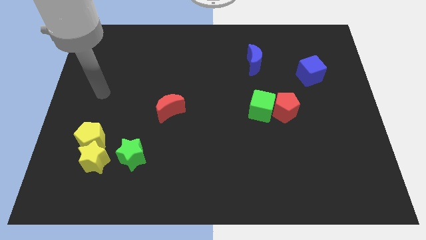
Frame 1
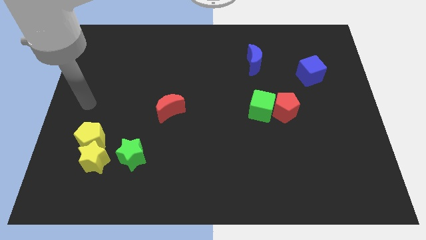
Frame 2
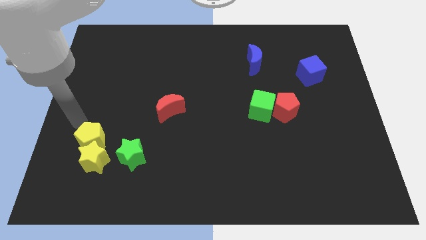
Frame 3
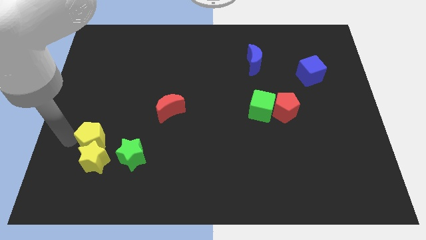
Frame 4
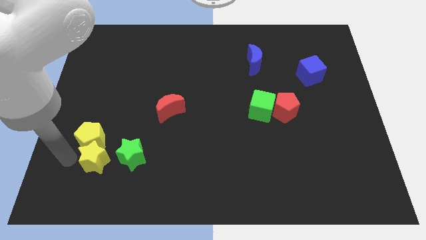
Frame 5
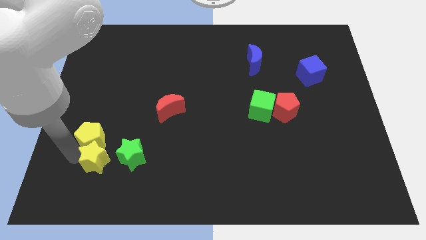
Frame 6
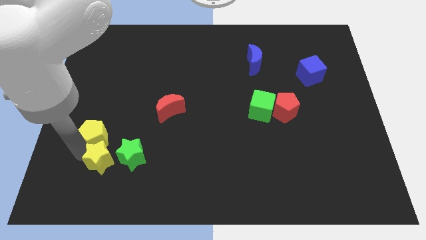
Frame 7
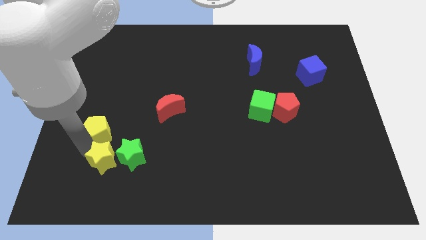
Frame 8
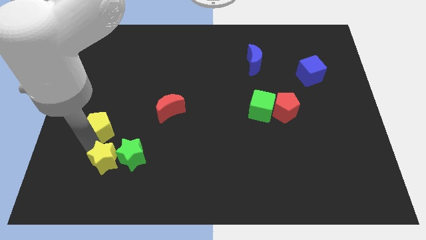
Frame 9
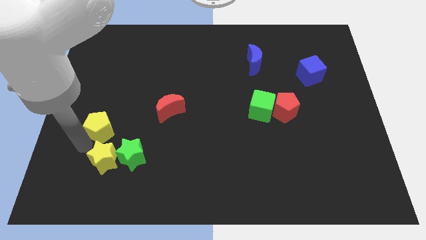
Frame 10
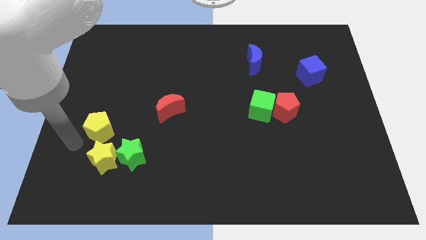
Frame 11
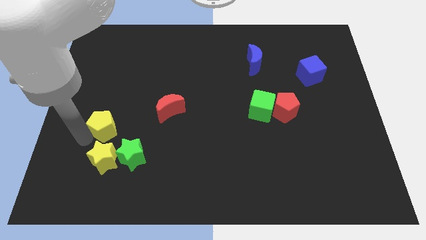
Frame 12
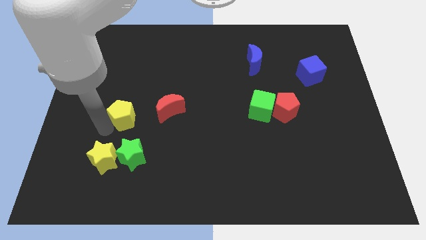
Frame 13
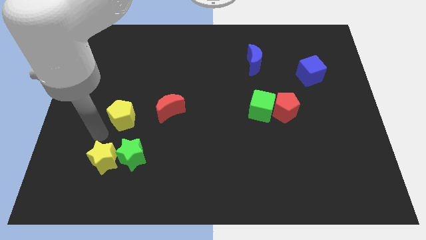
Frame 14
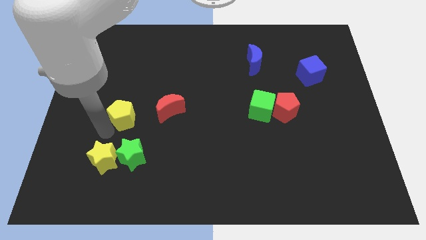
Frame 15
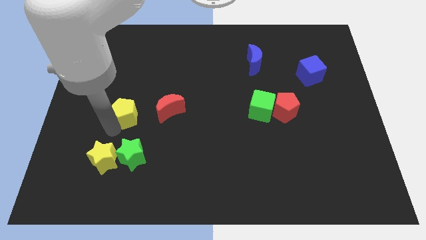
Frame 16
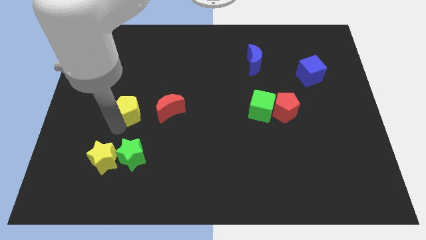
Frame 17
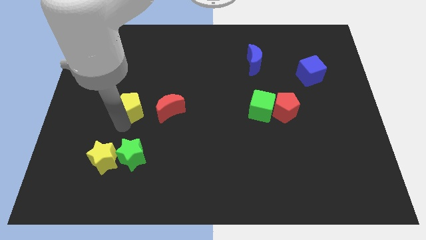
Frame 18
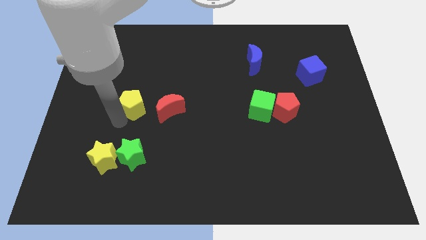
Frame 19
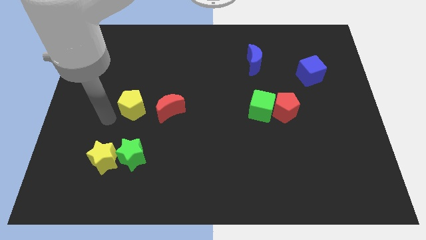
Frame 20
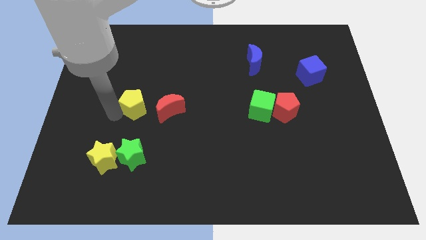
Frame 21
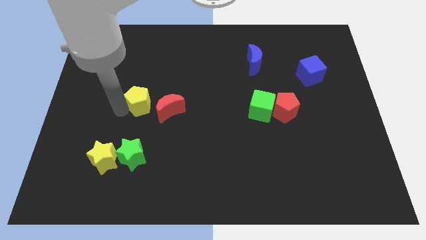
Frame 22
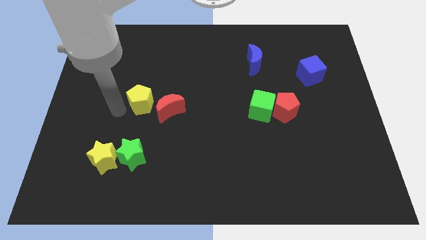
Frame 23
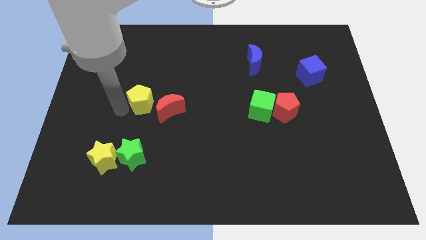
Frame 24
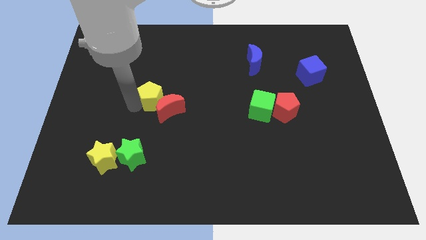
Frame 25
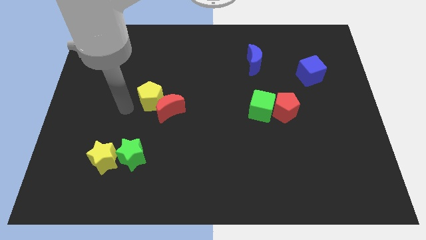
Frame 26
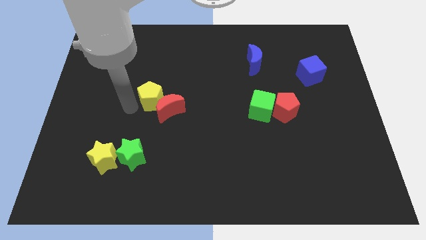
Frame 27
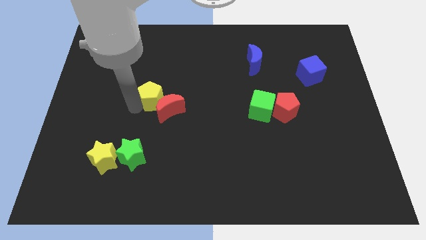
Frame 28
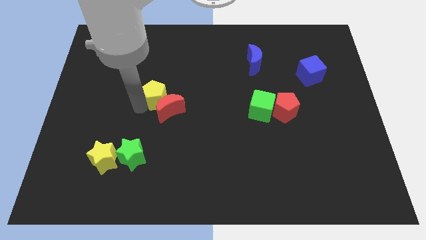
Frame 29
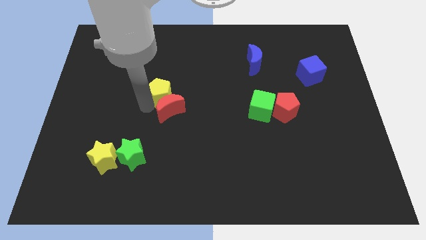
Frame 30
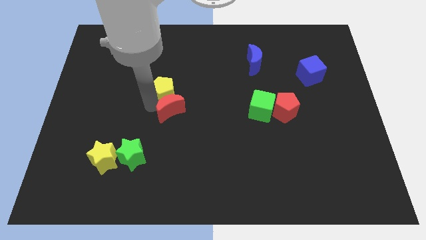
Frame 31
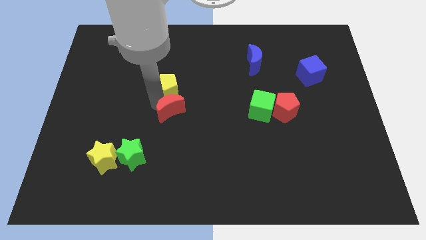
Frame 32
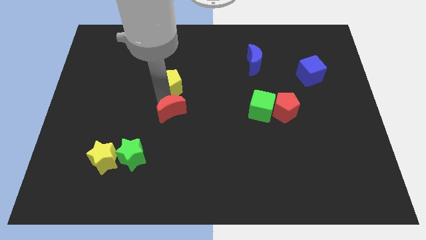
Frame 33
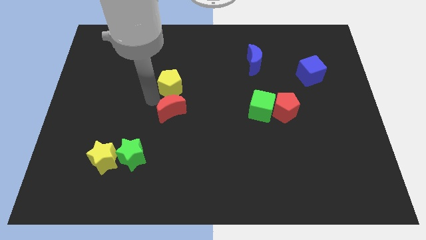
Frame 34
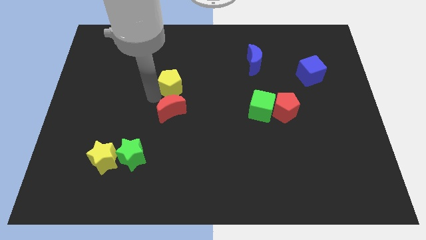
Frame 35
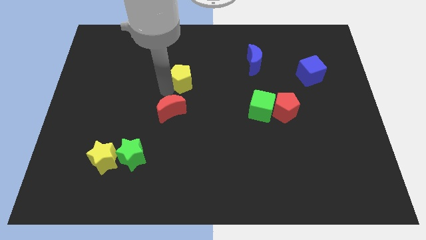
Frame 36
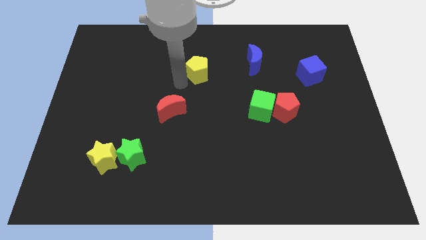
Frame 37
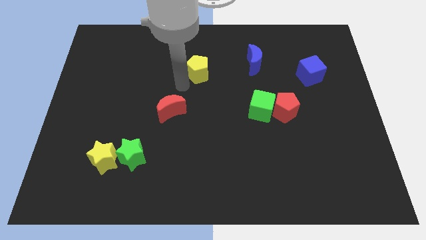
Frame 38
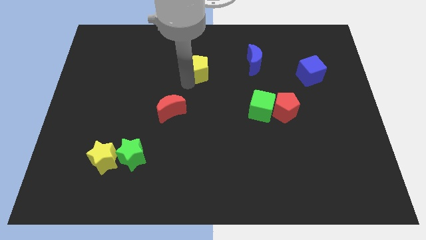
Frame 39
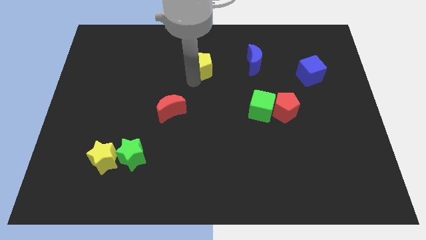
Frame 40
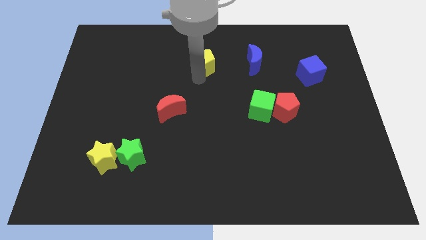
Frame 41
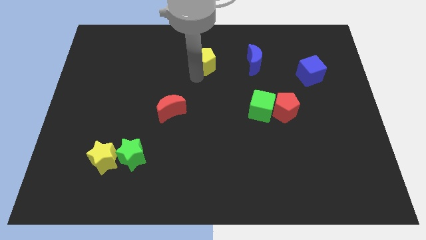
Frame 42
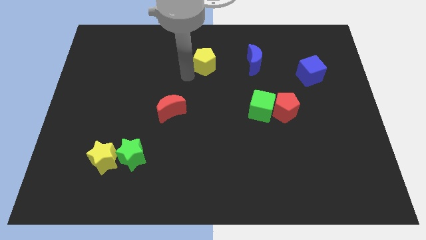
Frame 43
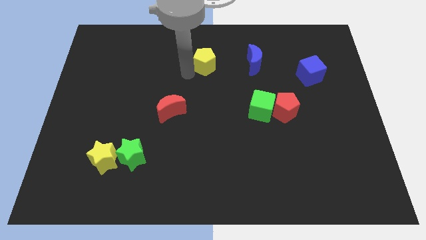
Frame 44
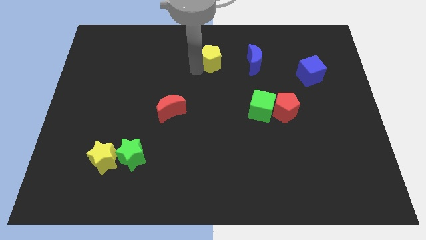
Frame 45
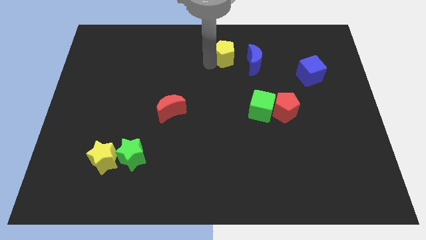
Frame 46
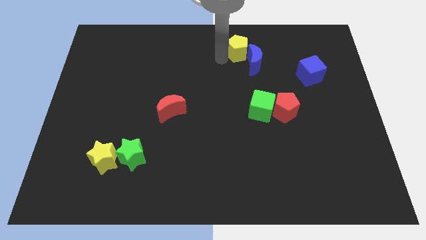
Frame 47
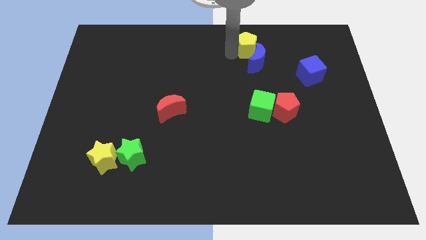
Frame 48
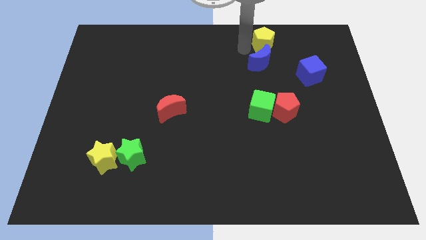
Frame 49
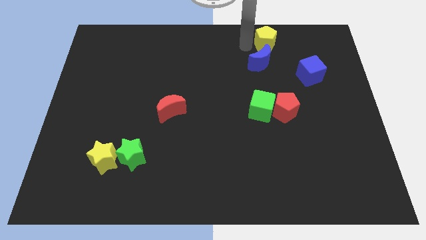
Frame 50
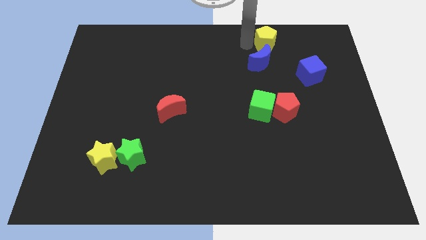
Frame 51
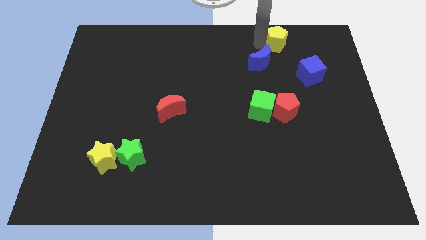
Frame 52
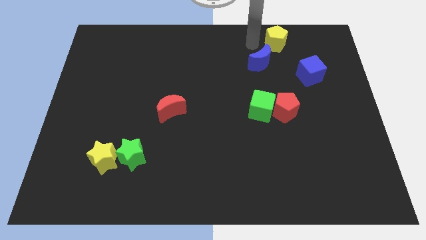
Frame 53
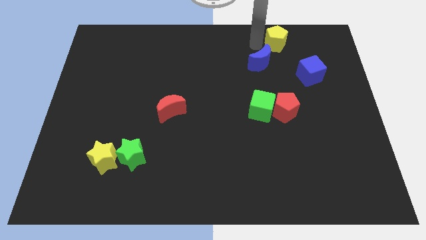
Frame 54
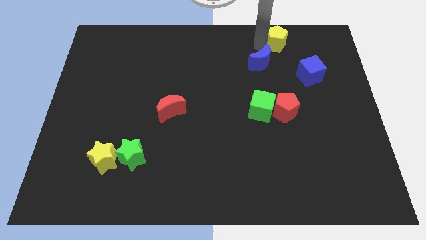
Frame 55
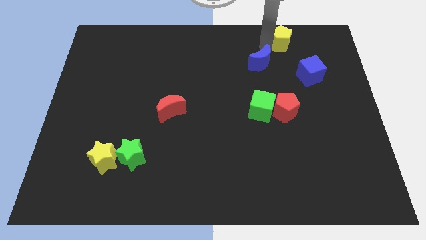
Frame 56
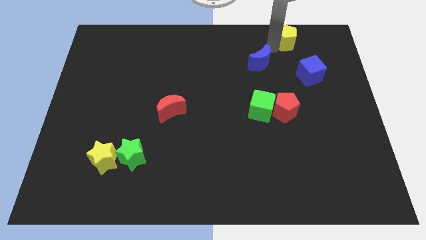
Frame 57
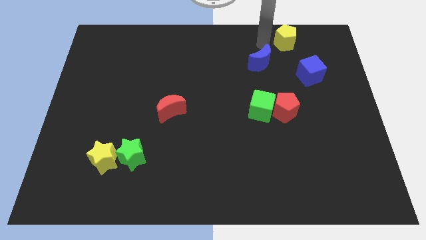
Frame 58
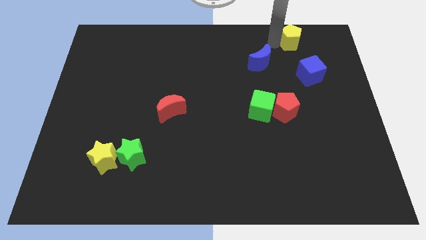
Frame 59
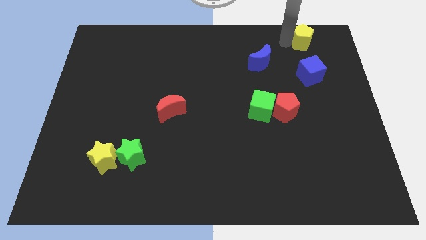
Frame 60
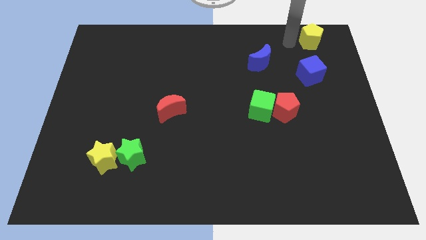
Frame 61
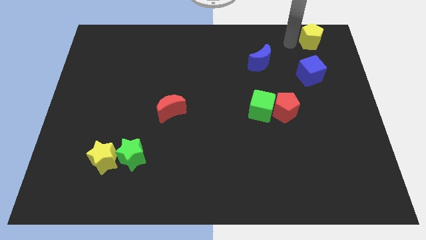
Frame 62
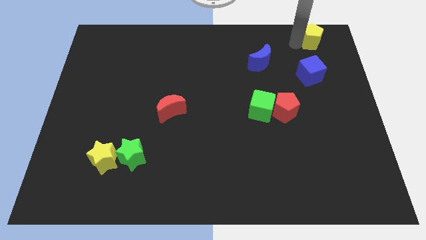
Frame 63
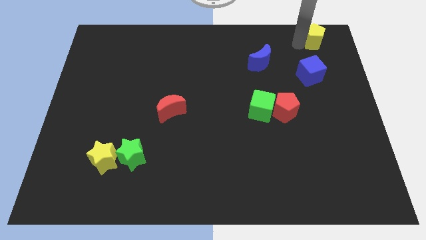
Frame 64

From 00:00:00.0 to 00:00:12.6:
slide the yellow pentagon to the upper right corner
